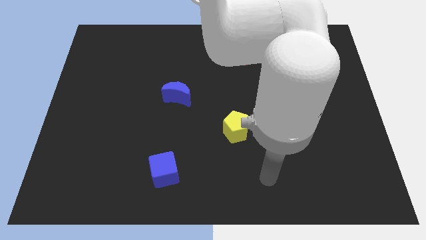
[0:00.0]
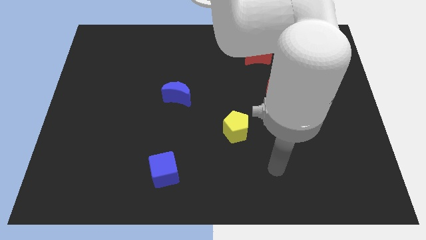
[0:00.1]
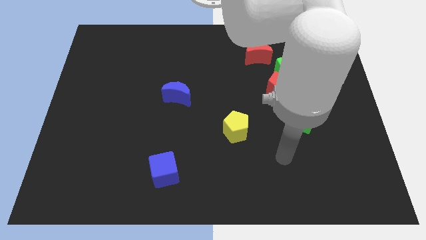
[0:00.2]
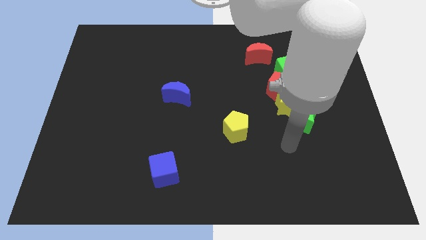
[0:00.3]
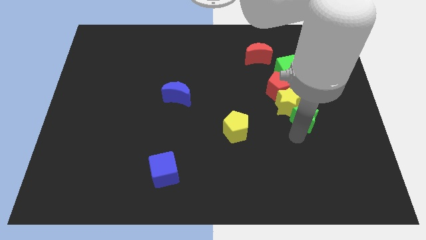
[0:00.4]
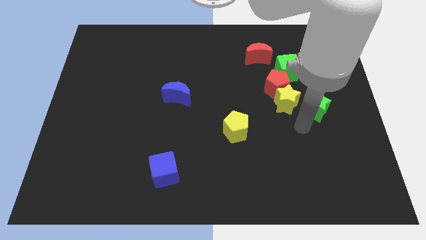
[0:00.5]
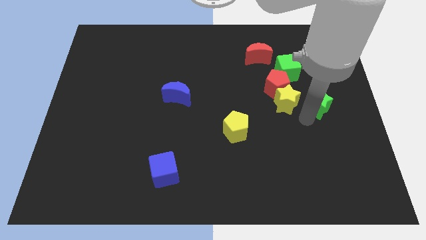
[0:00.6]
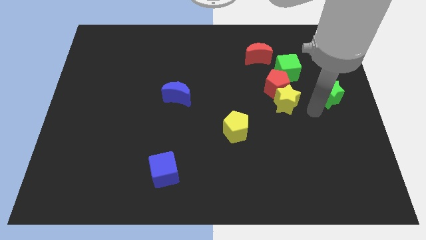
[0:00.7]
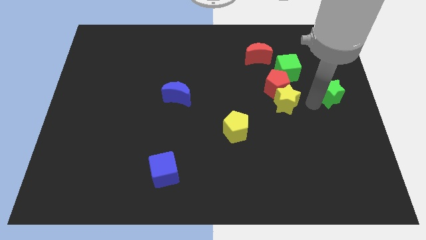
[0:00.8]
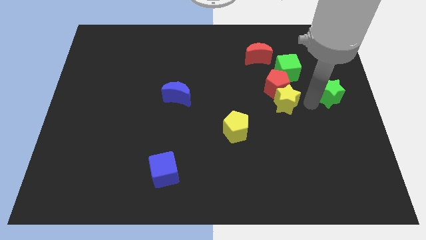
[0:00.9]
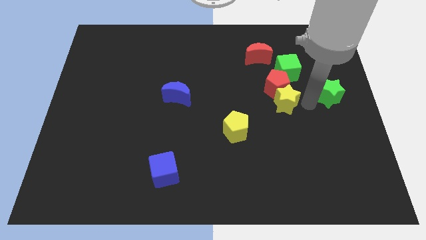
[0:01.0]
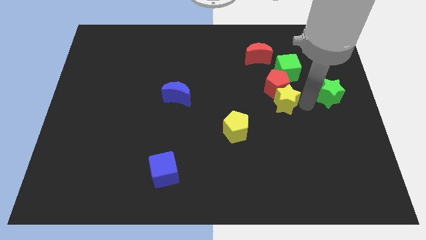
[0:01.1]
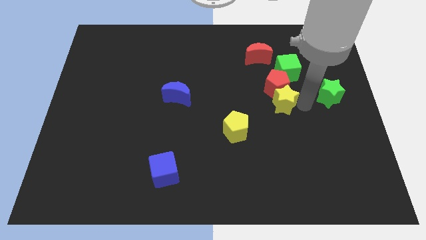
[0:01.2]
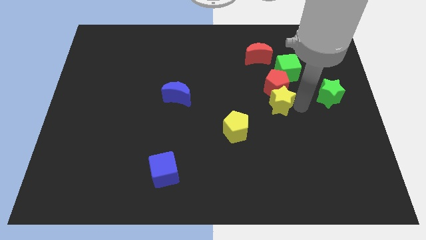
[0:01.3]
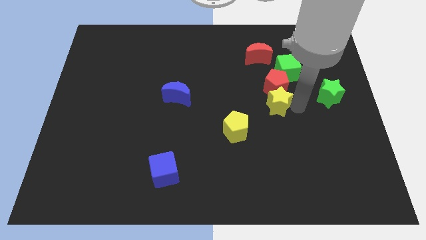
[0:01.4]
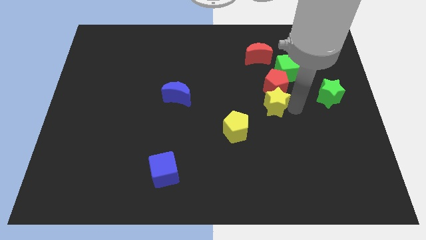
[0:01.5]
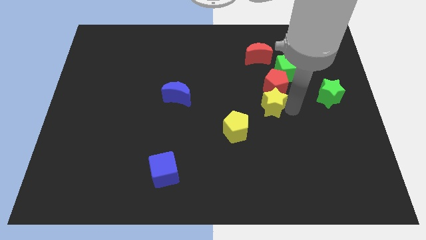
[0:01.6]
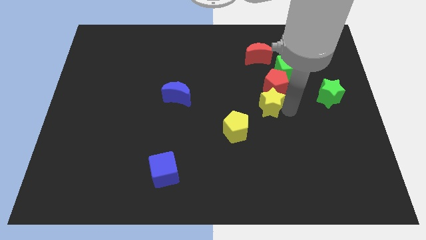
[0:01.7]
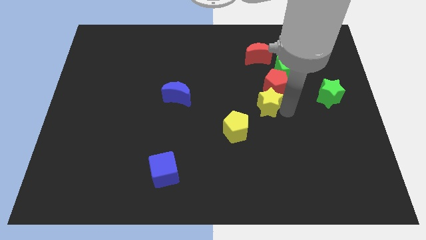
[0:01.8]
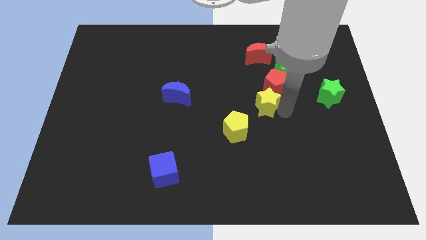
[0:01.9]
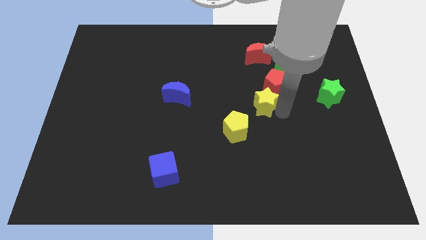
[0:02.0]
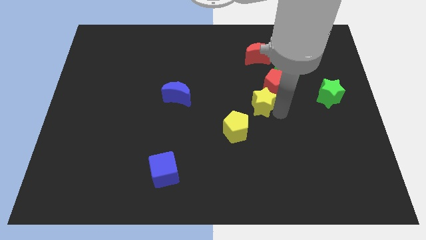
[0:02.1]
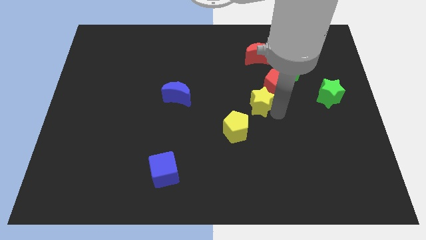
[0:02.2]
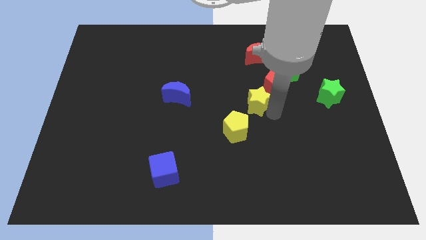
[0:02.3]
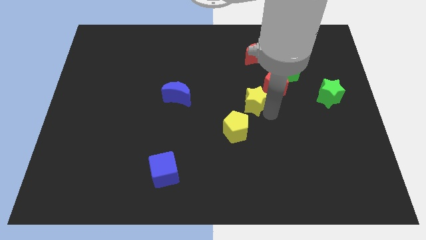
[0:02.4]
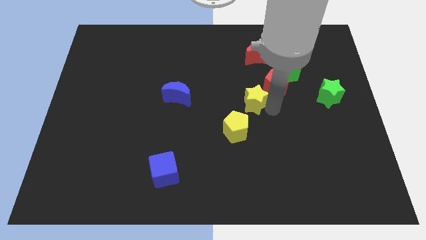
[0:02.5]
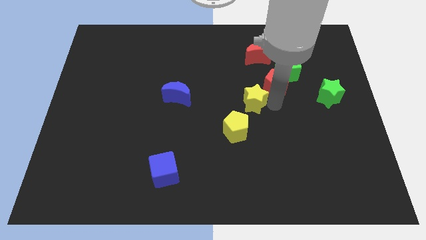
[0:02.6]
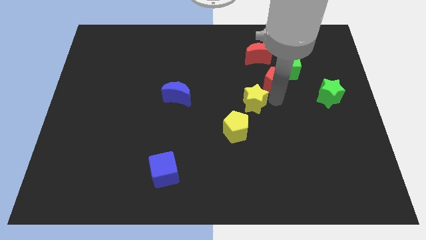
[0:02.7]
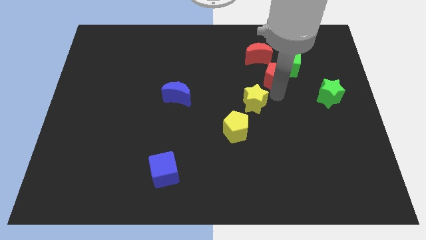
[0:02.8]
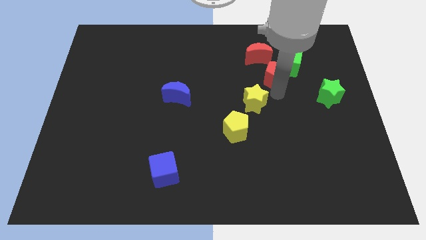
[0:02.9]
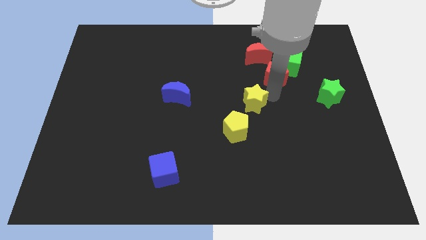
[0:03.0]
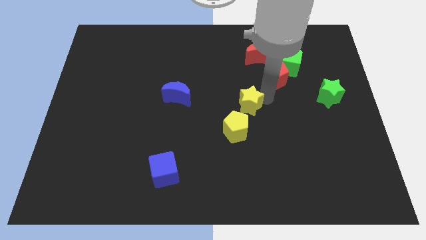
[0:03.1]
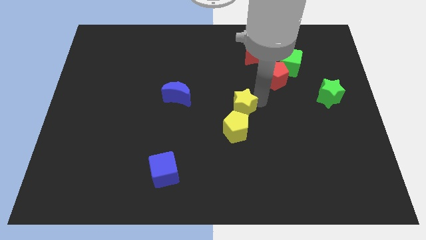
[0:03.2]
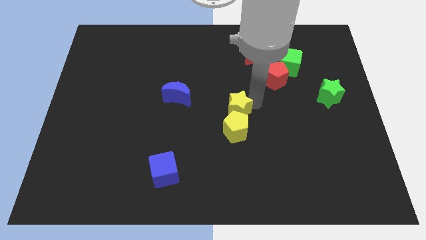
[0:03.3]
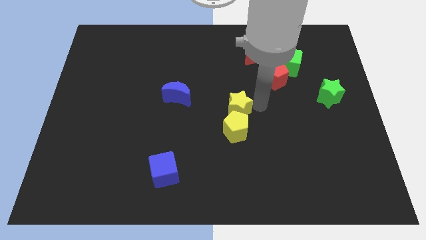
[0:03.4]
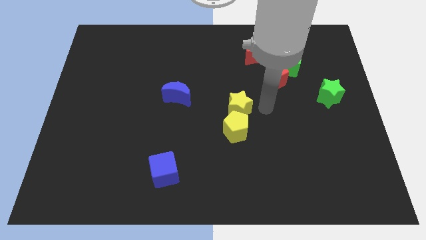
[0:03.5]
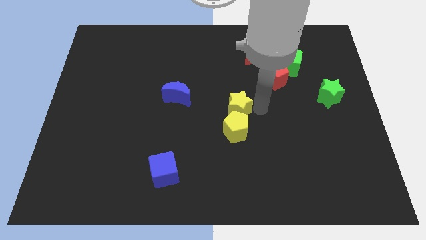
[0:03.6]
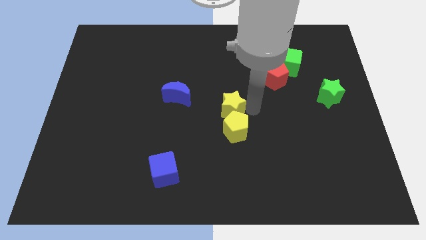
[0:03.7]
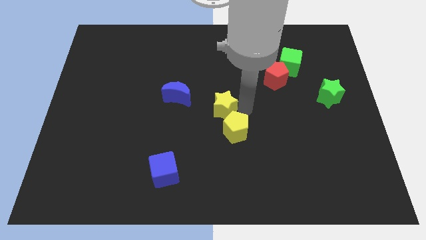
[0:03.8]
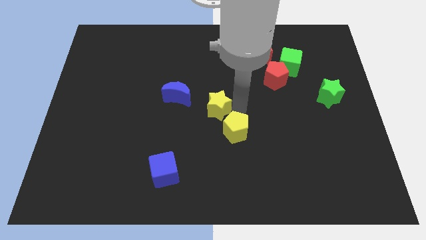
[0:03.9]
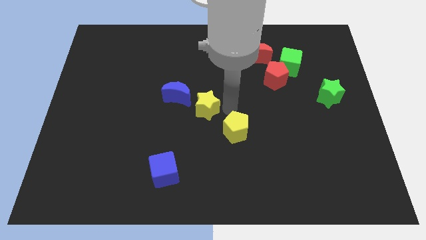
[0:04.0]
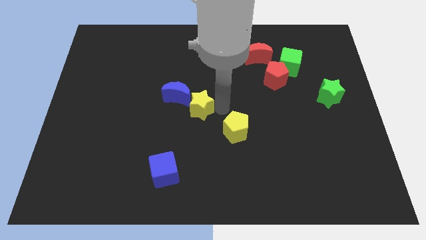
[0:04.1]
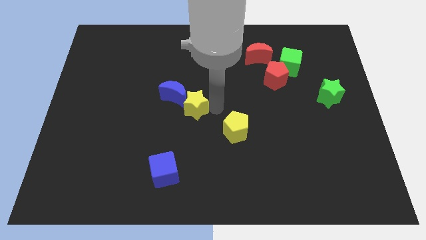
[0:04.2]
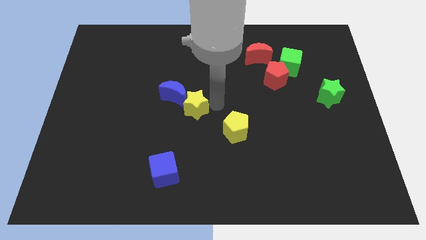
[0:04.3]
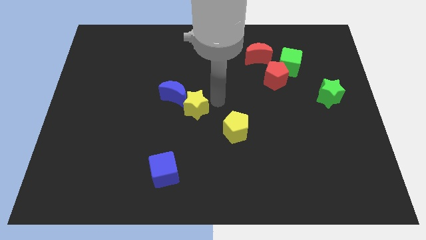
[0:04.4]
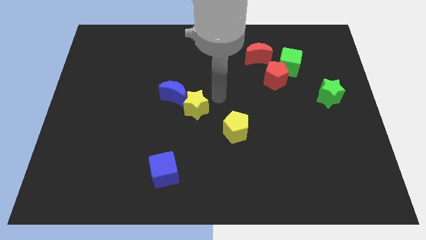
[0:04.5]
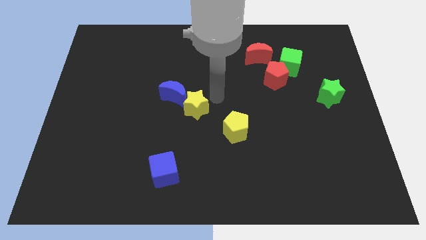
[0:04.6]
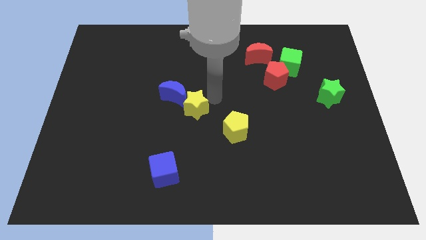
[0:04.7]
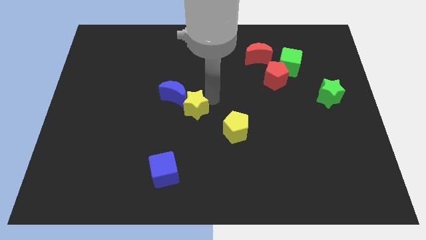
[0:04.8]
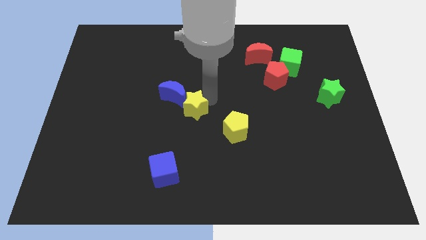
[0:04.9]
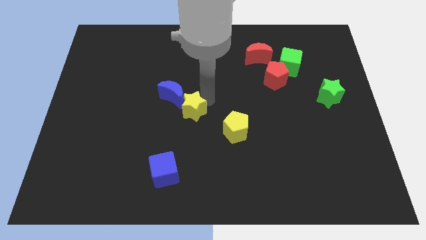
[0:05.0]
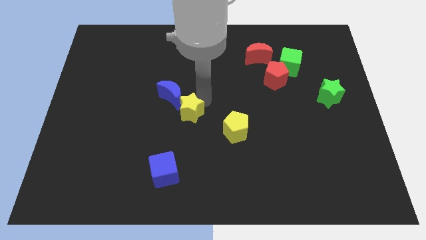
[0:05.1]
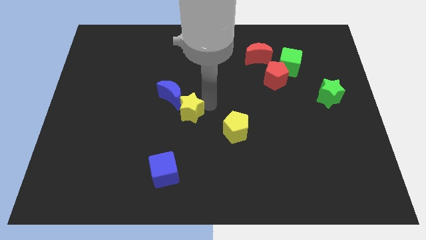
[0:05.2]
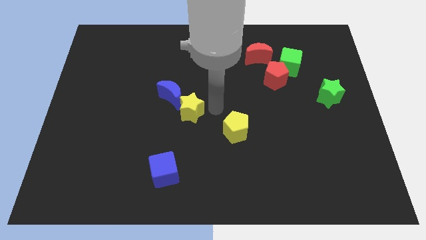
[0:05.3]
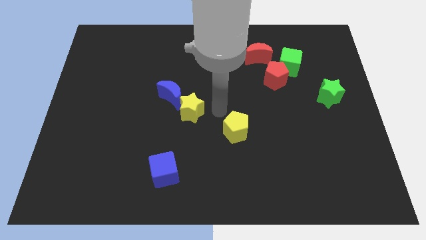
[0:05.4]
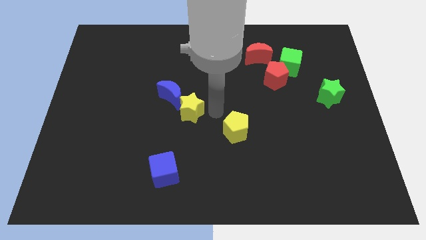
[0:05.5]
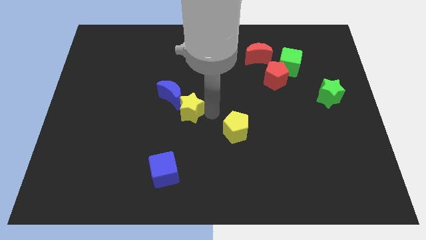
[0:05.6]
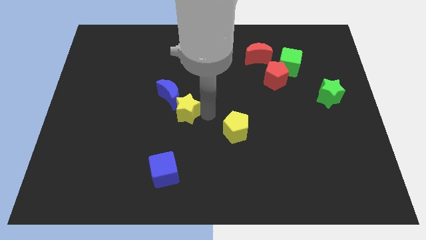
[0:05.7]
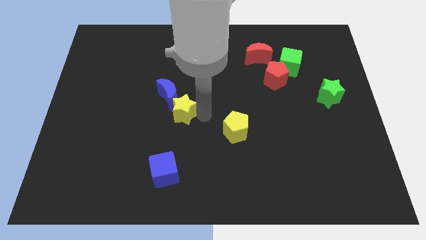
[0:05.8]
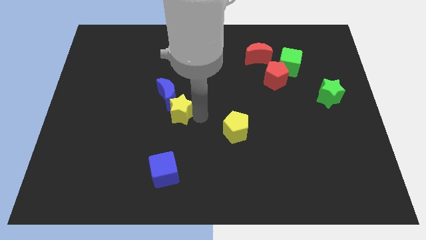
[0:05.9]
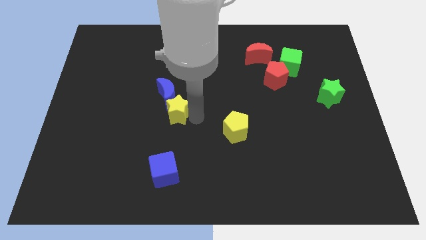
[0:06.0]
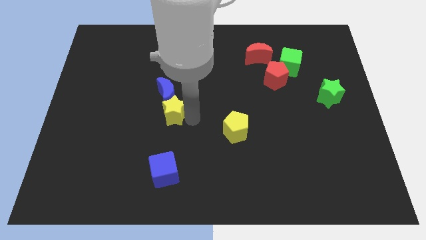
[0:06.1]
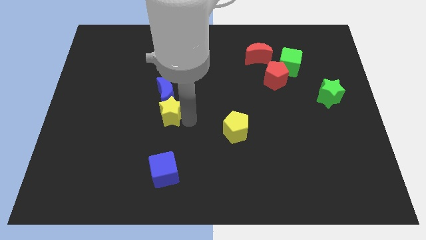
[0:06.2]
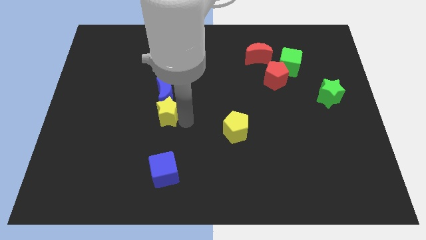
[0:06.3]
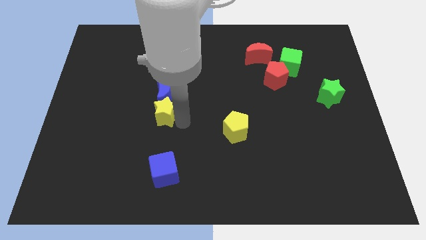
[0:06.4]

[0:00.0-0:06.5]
put the yellow star to the bottom left of the blue moon
